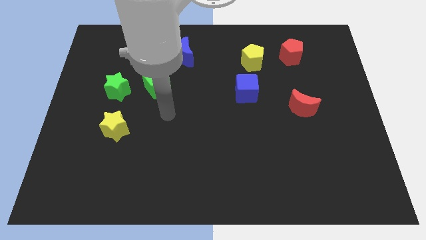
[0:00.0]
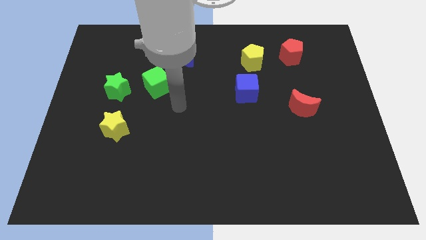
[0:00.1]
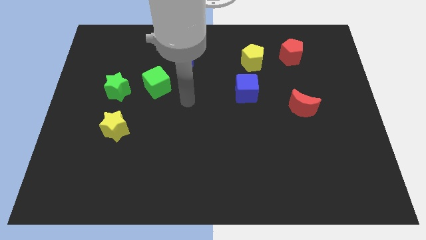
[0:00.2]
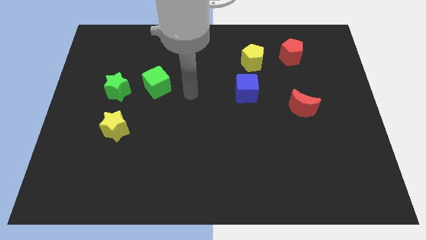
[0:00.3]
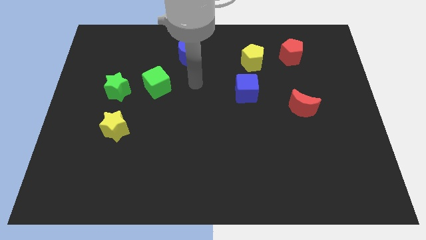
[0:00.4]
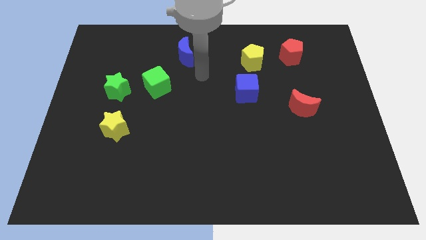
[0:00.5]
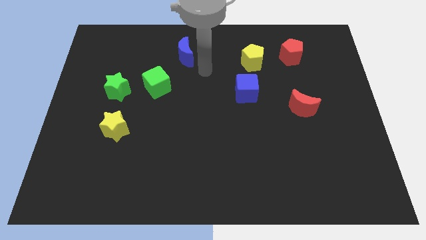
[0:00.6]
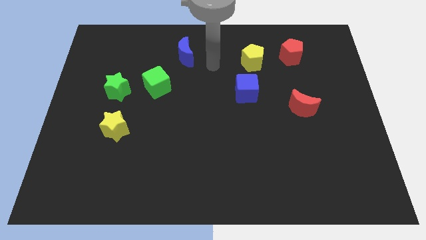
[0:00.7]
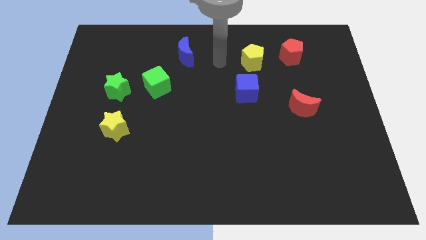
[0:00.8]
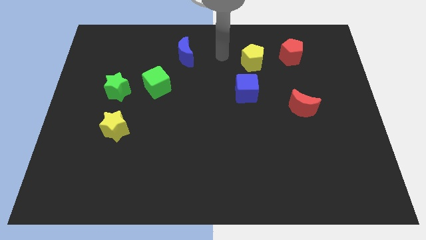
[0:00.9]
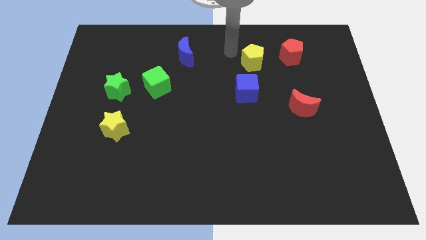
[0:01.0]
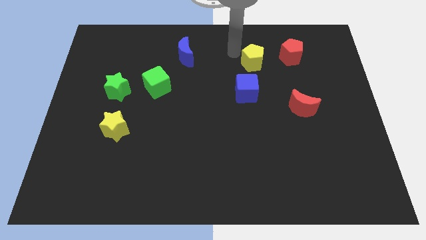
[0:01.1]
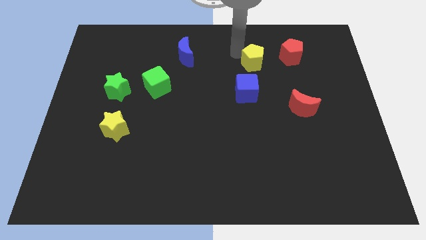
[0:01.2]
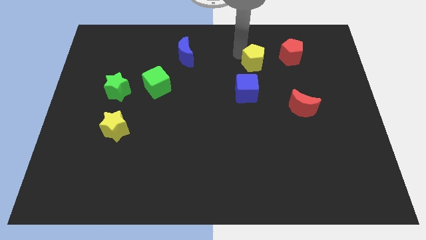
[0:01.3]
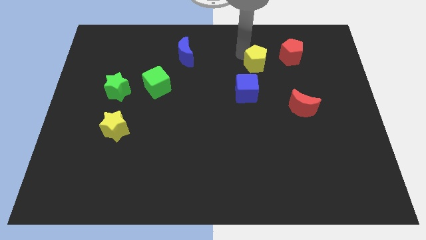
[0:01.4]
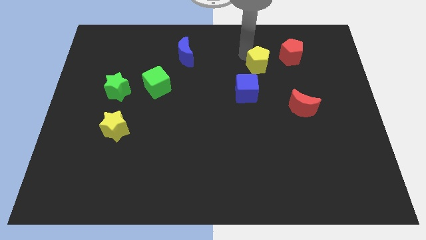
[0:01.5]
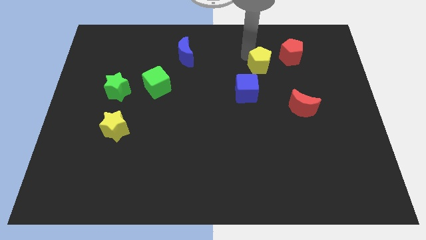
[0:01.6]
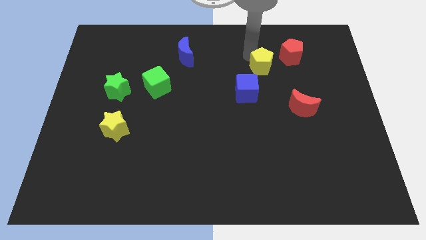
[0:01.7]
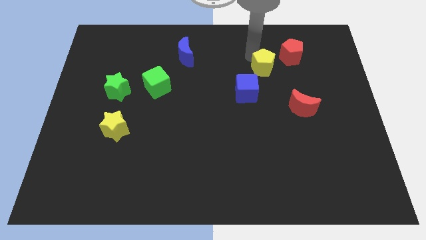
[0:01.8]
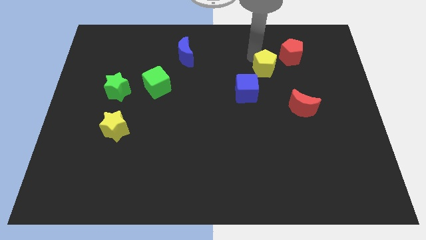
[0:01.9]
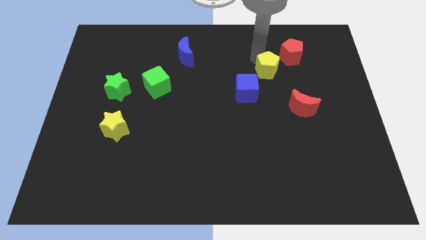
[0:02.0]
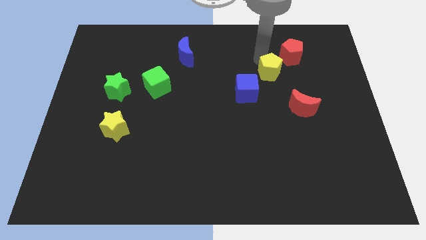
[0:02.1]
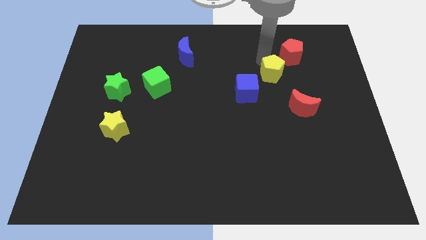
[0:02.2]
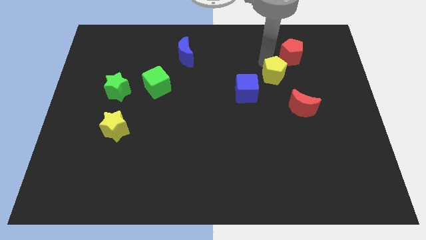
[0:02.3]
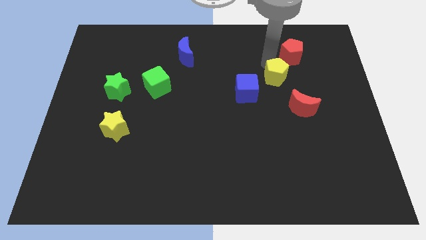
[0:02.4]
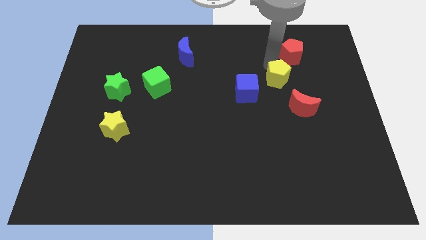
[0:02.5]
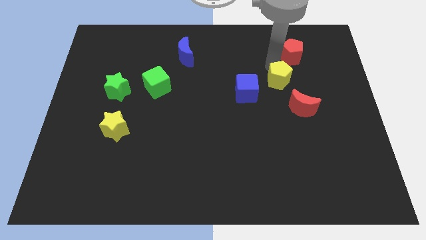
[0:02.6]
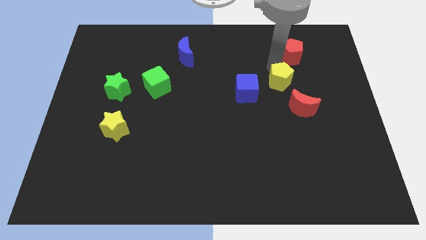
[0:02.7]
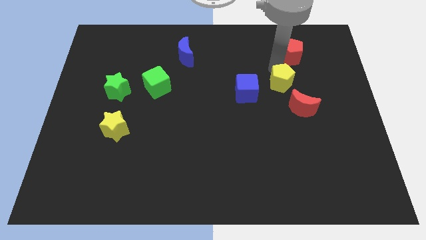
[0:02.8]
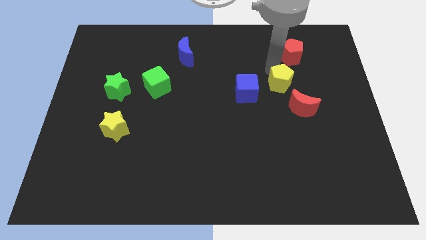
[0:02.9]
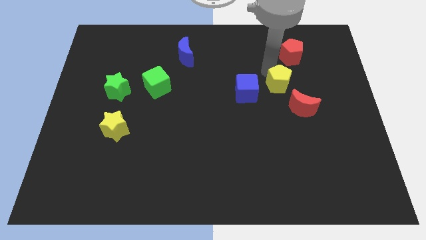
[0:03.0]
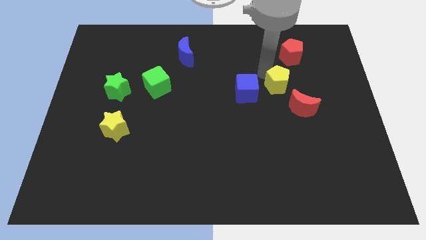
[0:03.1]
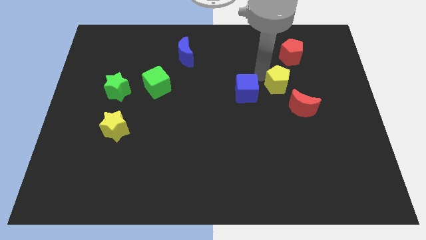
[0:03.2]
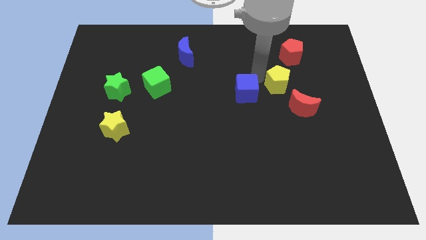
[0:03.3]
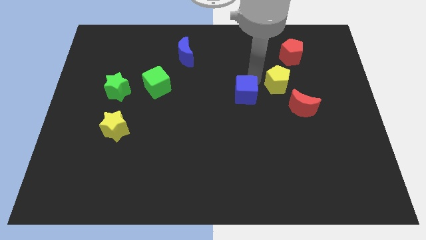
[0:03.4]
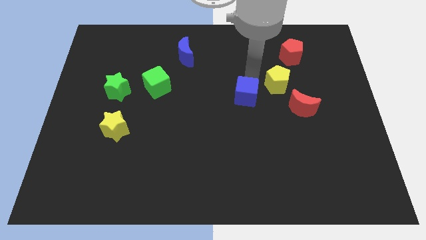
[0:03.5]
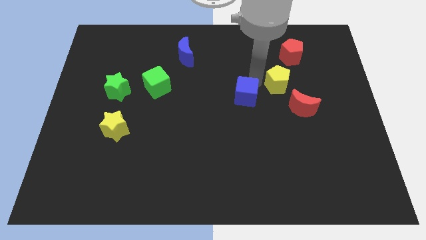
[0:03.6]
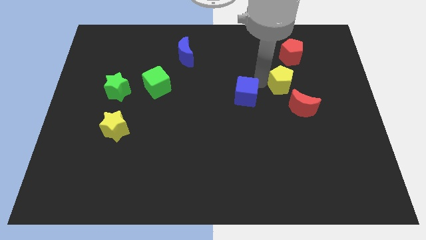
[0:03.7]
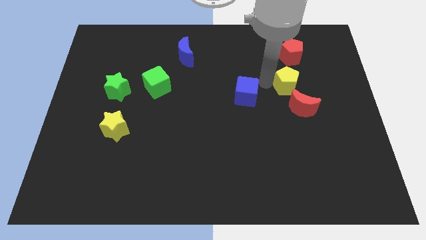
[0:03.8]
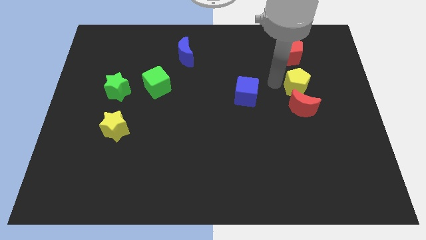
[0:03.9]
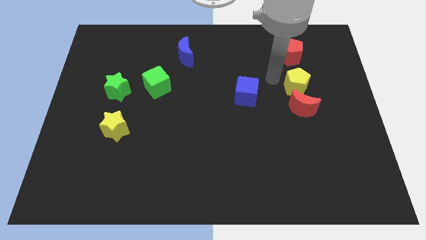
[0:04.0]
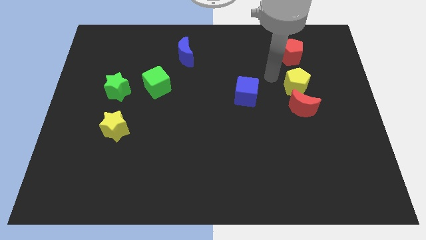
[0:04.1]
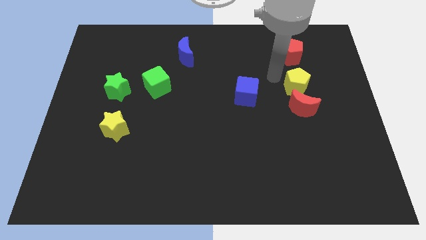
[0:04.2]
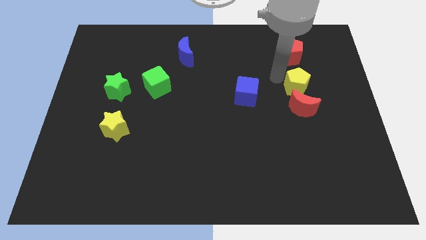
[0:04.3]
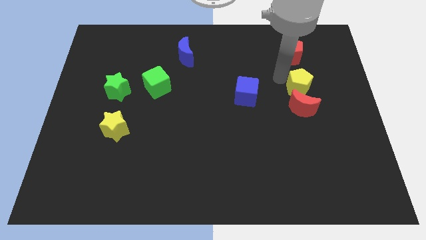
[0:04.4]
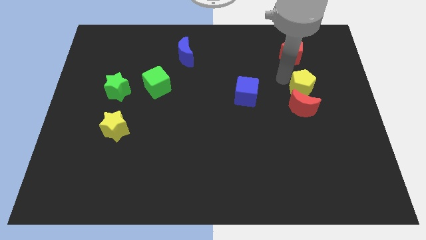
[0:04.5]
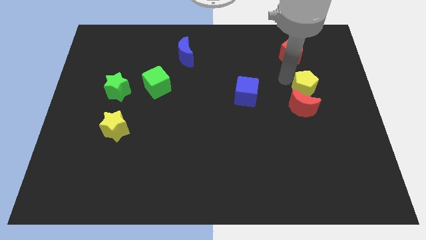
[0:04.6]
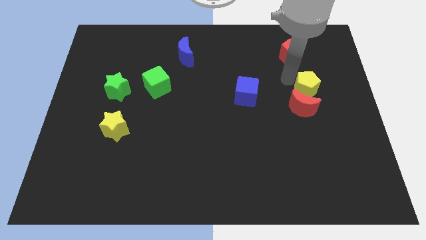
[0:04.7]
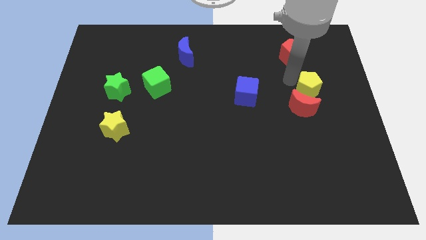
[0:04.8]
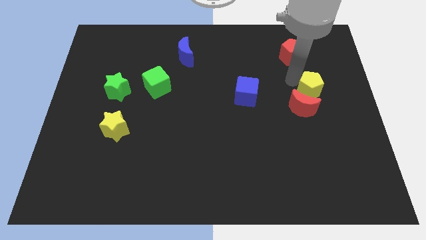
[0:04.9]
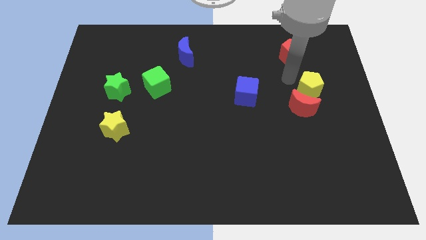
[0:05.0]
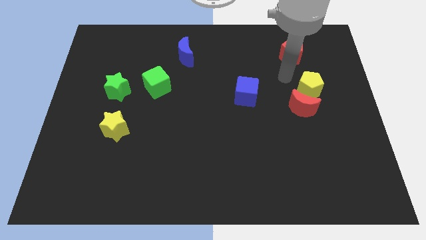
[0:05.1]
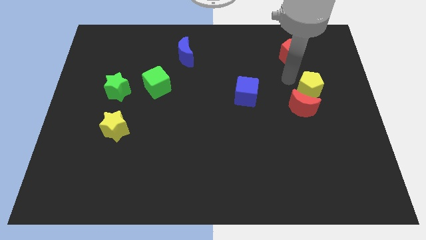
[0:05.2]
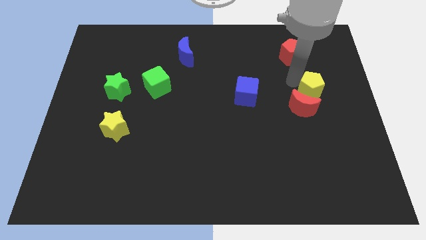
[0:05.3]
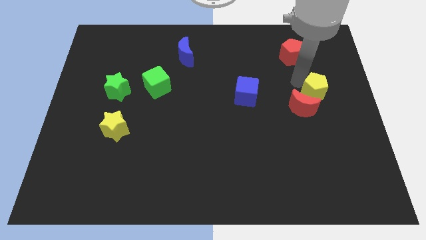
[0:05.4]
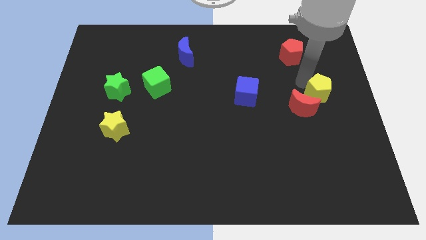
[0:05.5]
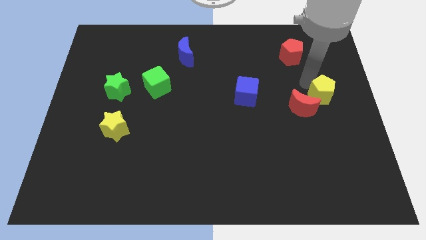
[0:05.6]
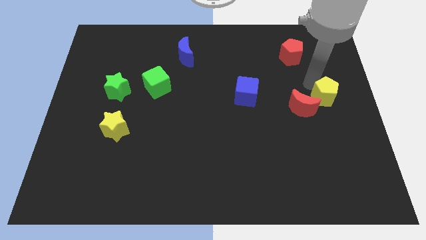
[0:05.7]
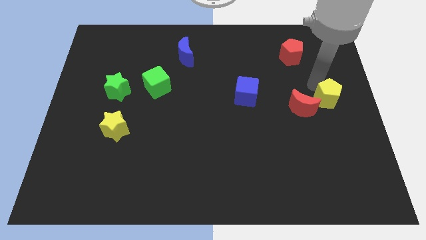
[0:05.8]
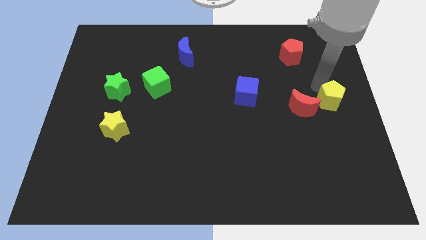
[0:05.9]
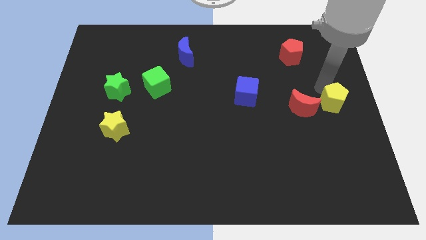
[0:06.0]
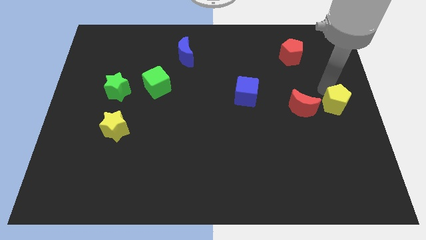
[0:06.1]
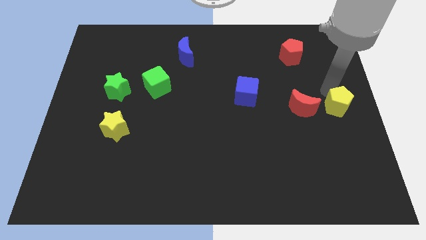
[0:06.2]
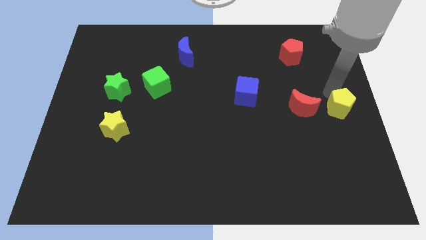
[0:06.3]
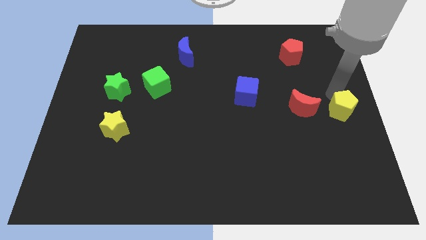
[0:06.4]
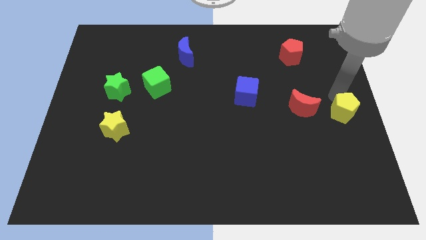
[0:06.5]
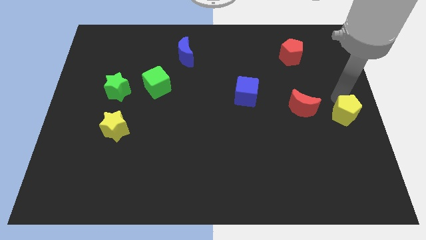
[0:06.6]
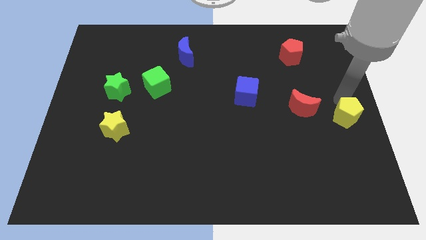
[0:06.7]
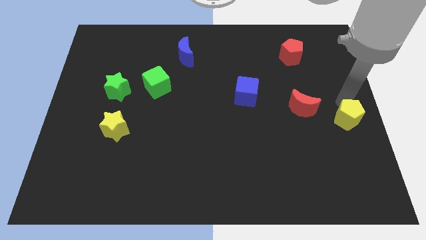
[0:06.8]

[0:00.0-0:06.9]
push the yellow pentagon diagonally down and to the right of the red moon

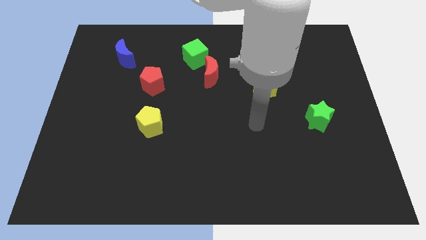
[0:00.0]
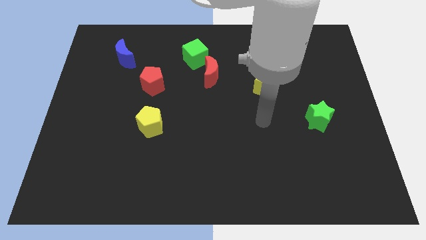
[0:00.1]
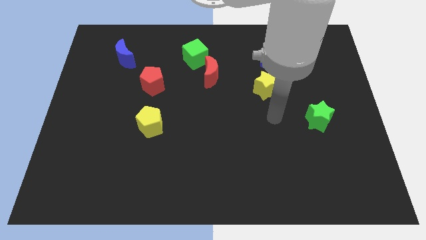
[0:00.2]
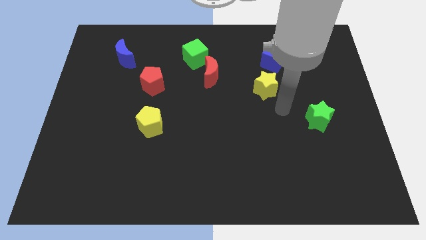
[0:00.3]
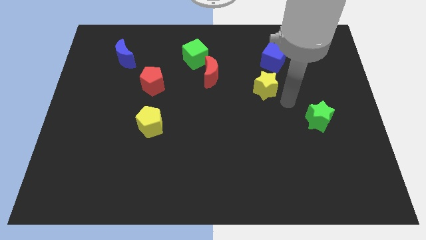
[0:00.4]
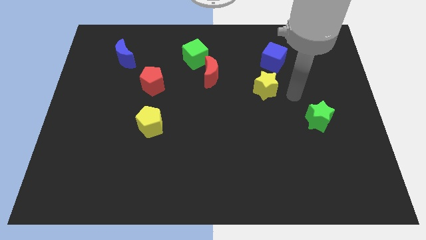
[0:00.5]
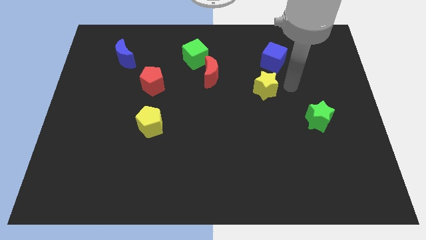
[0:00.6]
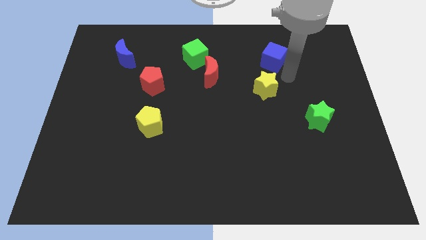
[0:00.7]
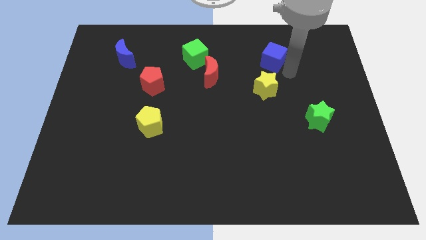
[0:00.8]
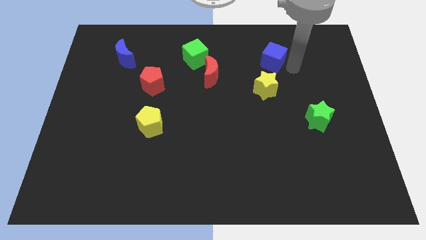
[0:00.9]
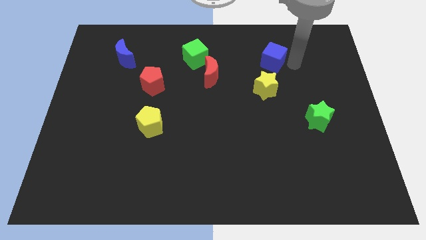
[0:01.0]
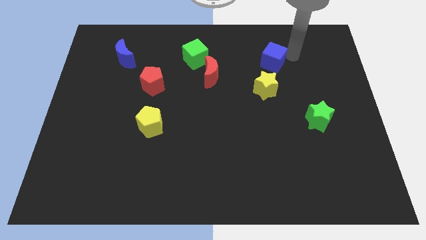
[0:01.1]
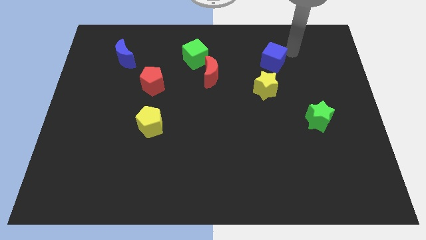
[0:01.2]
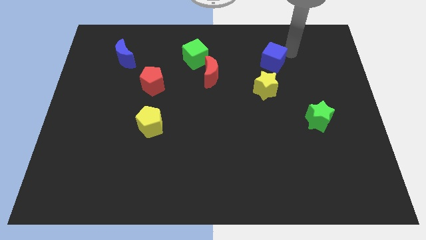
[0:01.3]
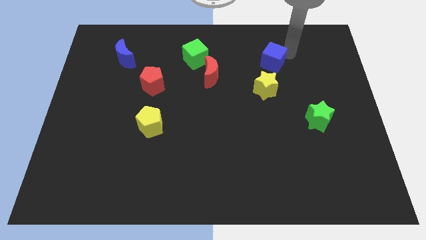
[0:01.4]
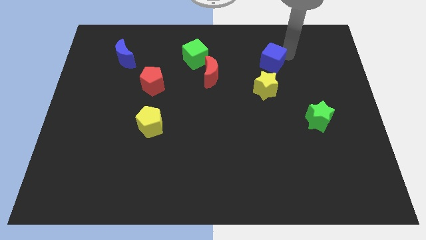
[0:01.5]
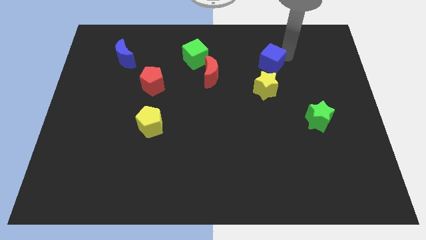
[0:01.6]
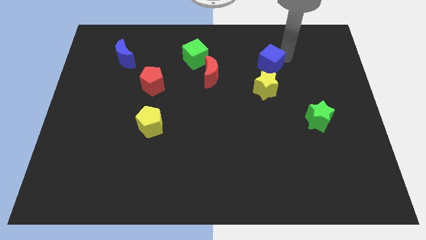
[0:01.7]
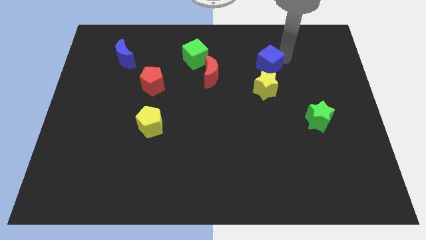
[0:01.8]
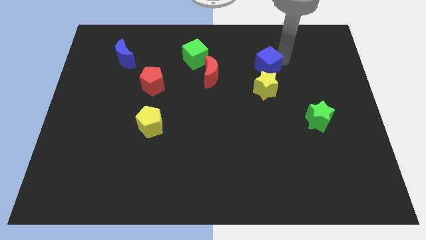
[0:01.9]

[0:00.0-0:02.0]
slide the blue cube to the right of the red moon
